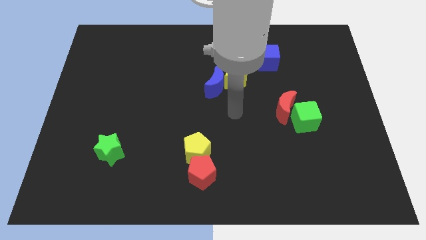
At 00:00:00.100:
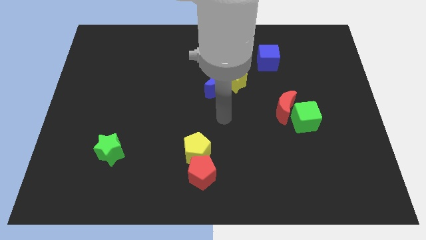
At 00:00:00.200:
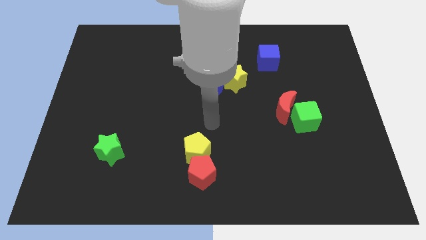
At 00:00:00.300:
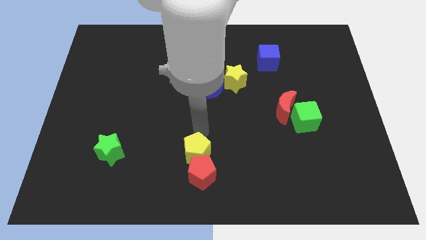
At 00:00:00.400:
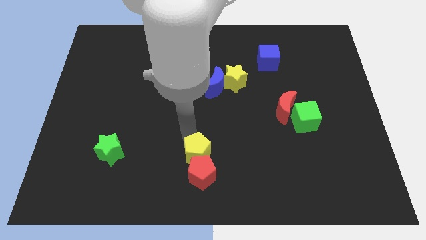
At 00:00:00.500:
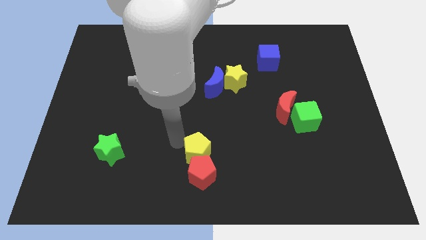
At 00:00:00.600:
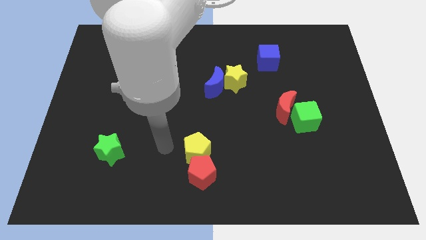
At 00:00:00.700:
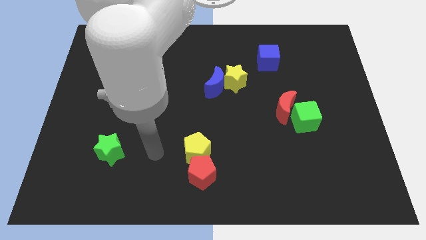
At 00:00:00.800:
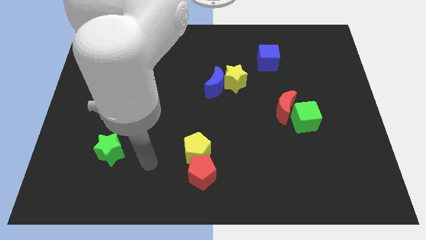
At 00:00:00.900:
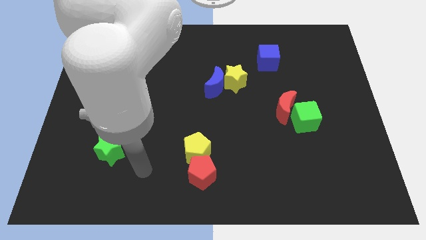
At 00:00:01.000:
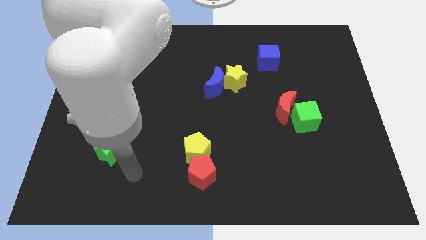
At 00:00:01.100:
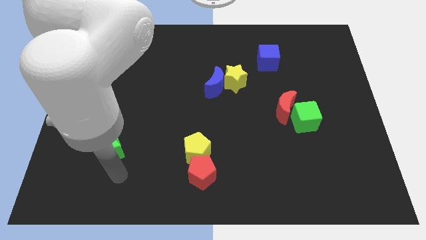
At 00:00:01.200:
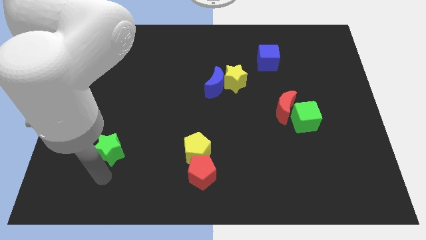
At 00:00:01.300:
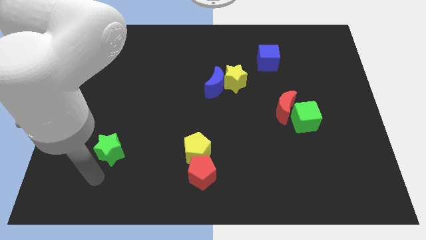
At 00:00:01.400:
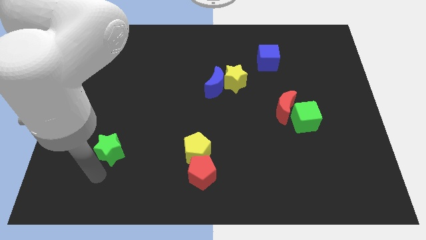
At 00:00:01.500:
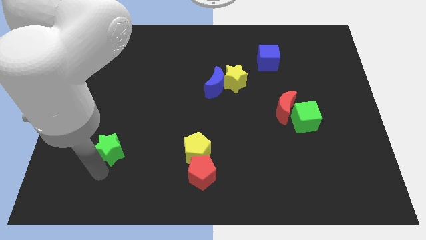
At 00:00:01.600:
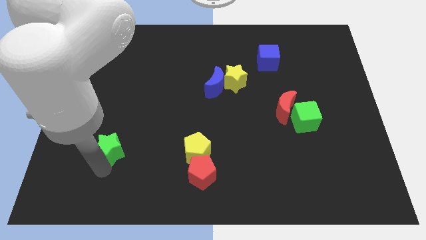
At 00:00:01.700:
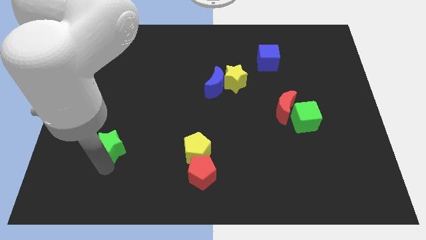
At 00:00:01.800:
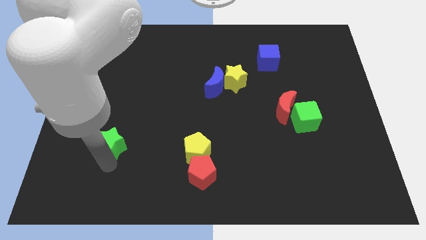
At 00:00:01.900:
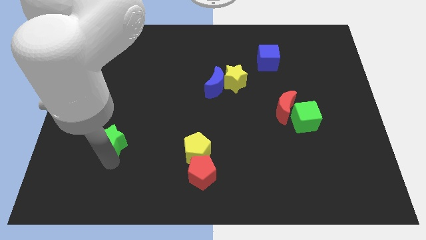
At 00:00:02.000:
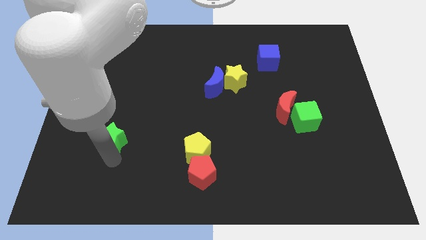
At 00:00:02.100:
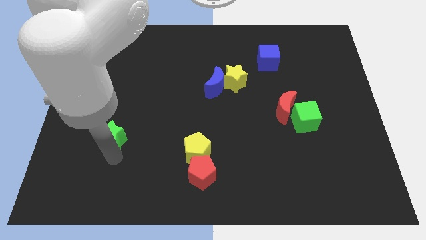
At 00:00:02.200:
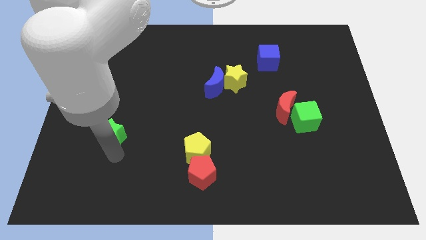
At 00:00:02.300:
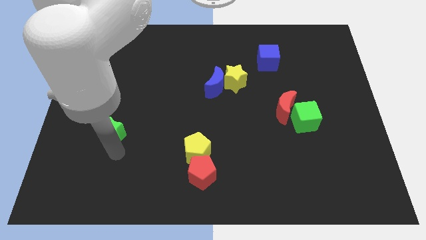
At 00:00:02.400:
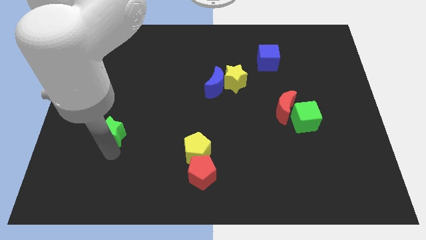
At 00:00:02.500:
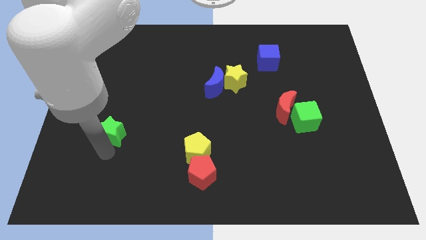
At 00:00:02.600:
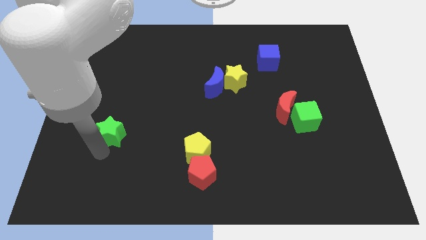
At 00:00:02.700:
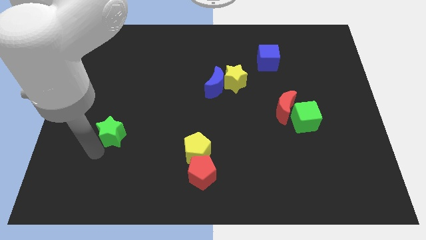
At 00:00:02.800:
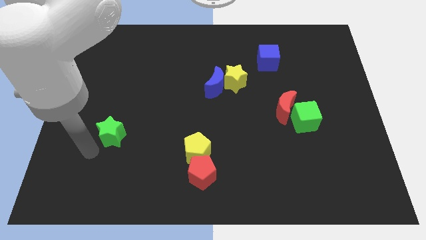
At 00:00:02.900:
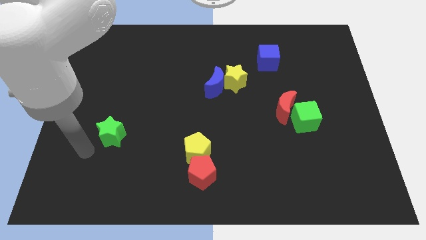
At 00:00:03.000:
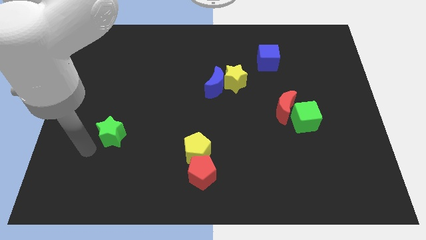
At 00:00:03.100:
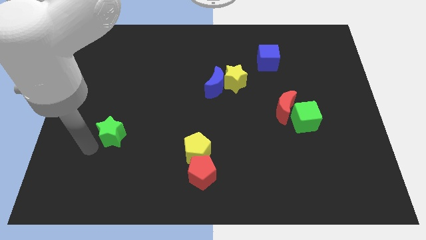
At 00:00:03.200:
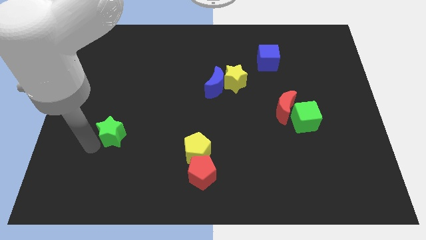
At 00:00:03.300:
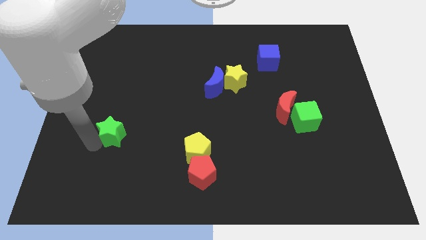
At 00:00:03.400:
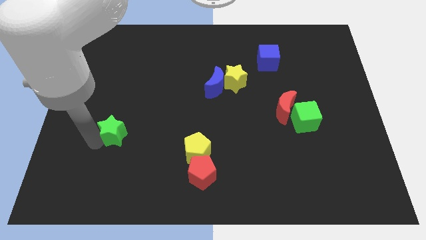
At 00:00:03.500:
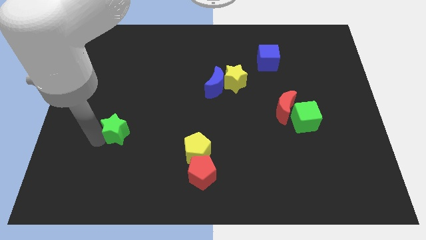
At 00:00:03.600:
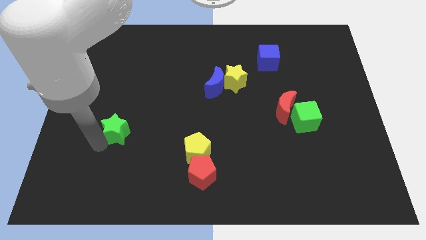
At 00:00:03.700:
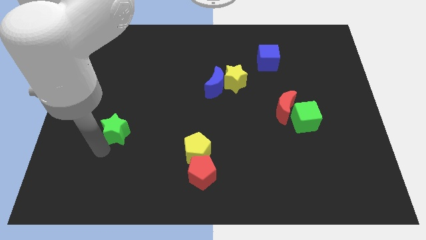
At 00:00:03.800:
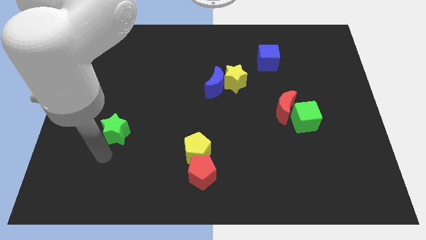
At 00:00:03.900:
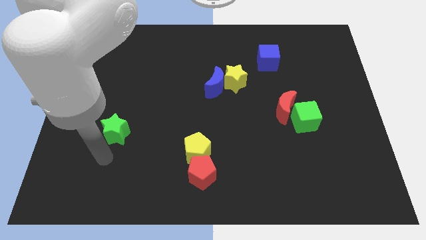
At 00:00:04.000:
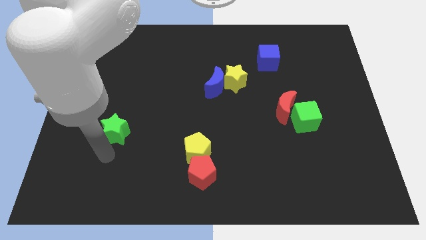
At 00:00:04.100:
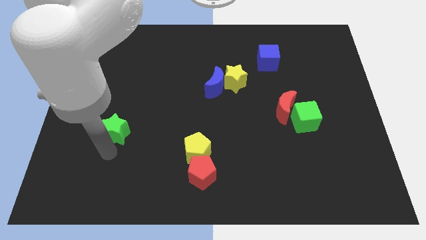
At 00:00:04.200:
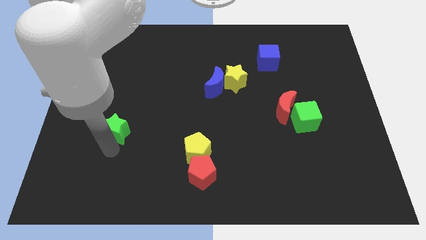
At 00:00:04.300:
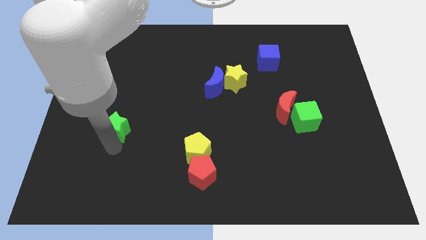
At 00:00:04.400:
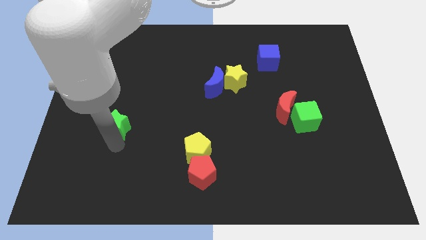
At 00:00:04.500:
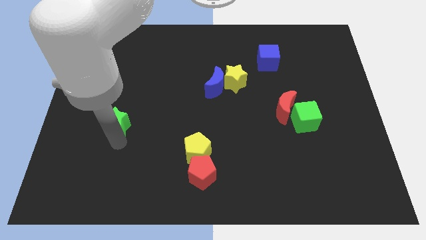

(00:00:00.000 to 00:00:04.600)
slide the green star a little up

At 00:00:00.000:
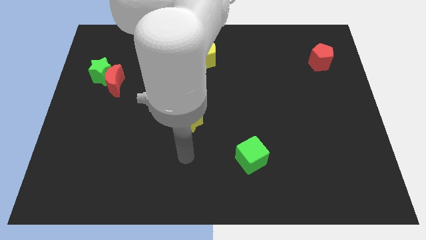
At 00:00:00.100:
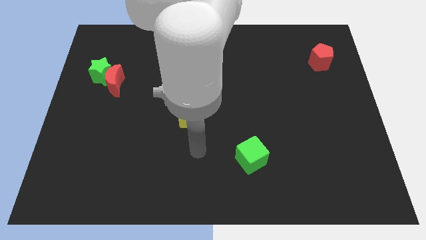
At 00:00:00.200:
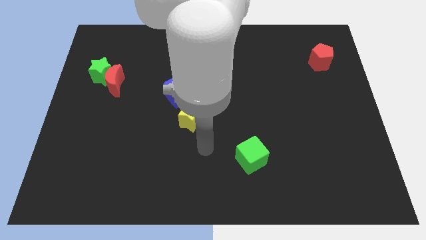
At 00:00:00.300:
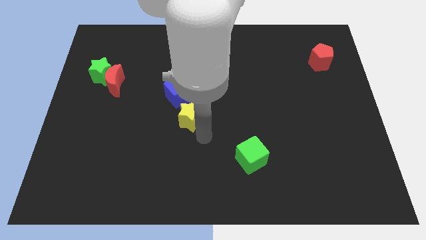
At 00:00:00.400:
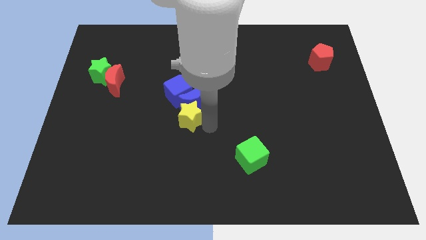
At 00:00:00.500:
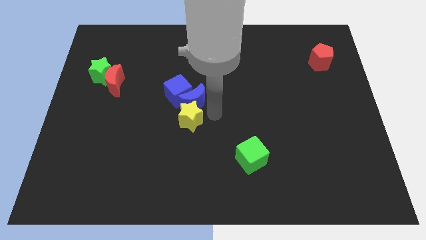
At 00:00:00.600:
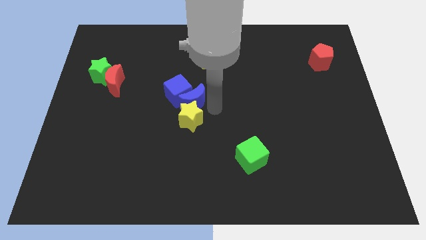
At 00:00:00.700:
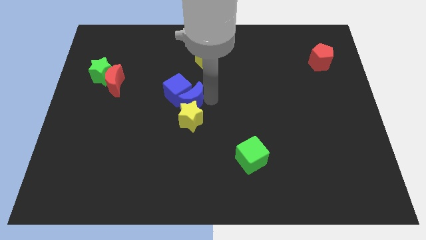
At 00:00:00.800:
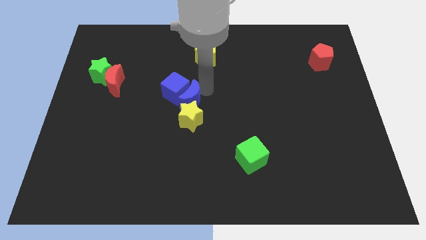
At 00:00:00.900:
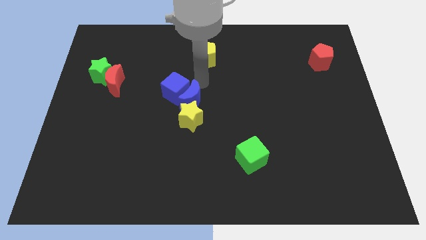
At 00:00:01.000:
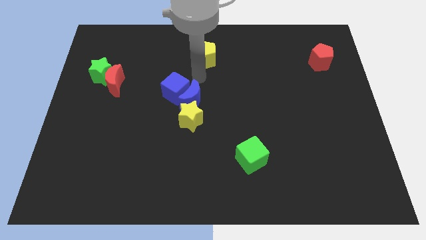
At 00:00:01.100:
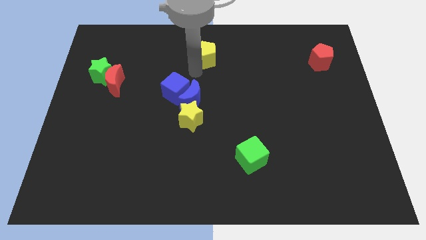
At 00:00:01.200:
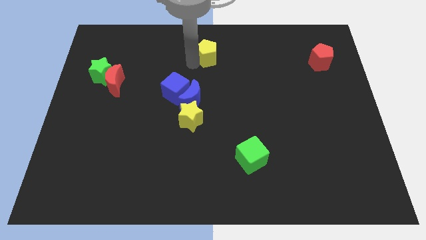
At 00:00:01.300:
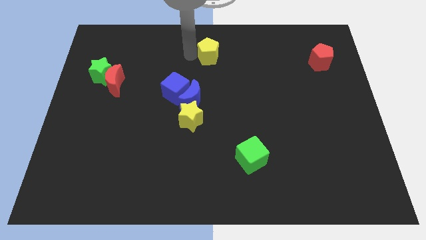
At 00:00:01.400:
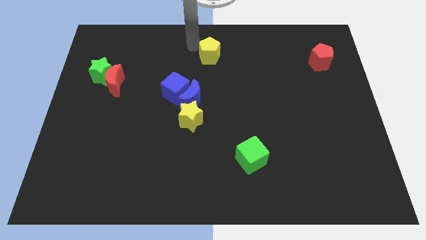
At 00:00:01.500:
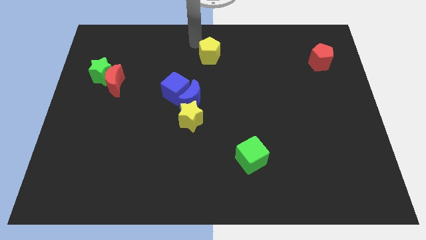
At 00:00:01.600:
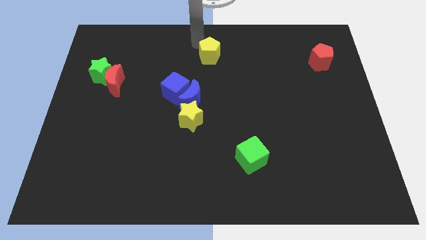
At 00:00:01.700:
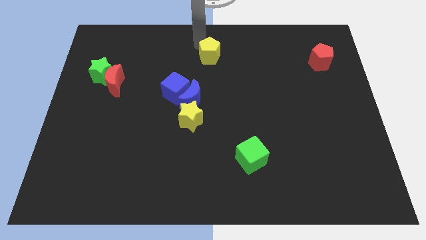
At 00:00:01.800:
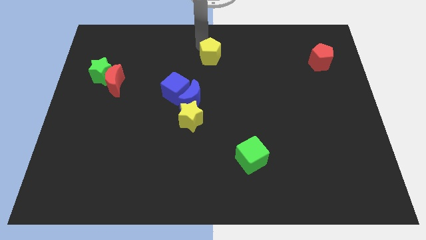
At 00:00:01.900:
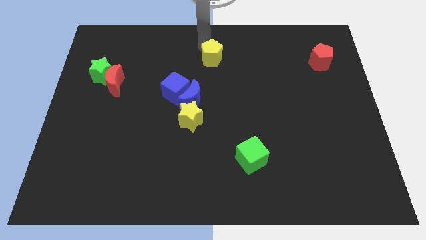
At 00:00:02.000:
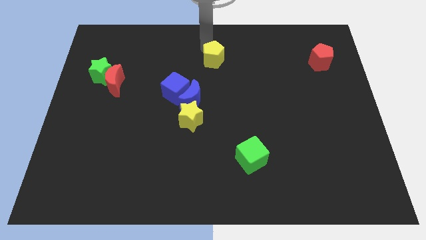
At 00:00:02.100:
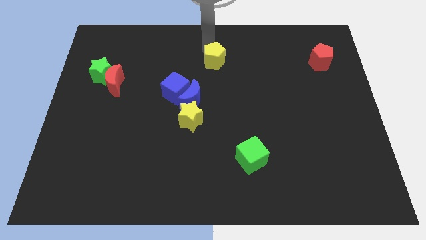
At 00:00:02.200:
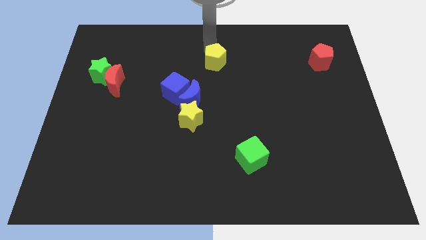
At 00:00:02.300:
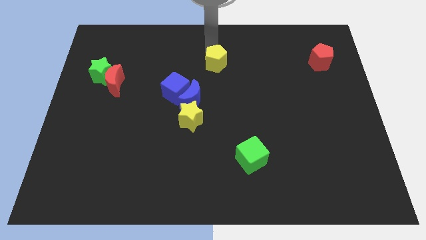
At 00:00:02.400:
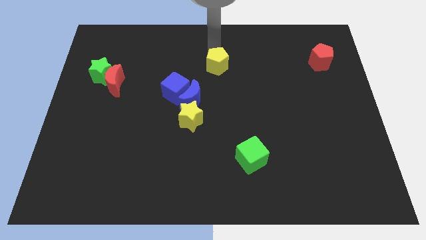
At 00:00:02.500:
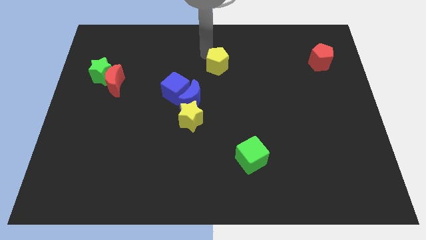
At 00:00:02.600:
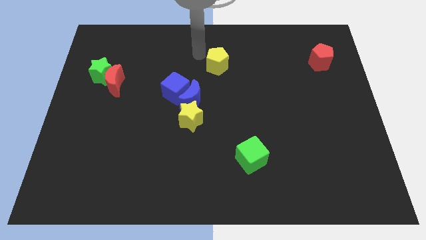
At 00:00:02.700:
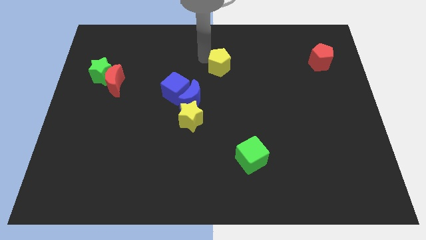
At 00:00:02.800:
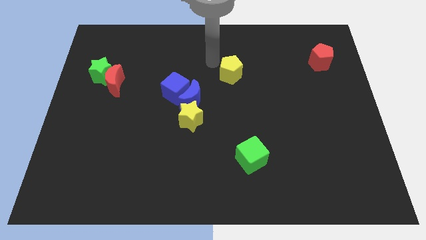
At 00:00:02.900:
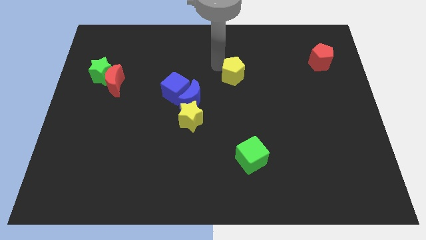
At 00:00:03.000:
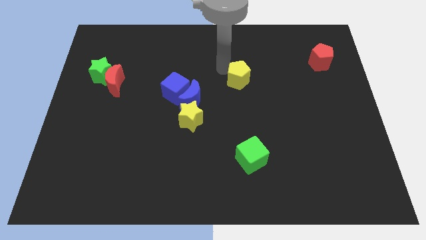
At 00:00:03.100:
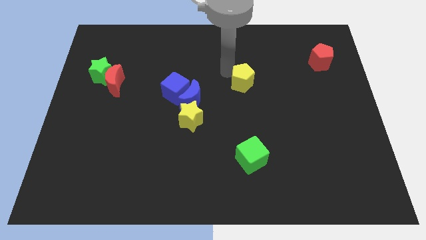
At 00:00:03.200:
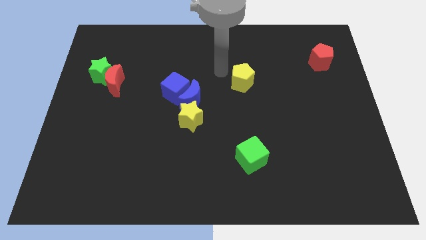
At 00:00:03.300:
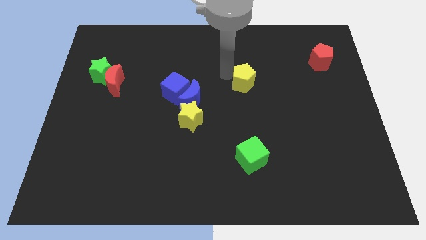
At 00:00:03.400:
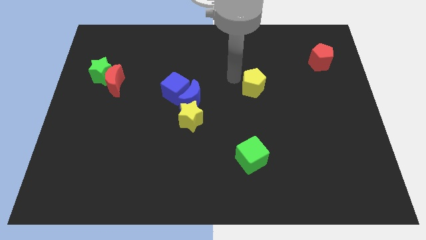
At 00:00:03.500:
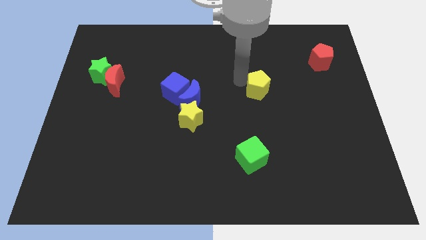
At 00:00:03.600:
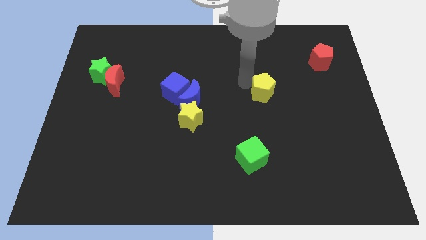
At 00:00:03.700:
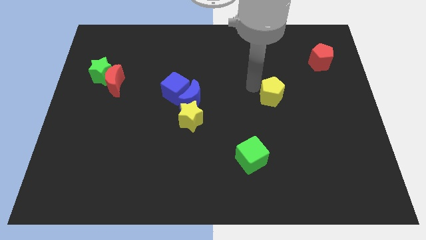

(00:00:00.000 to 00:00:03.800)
push the yellow pentagon downwards and then to the right
